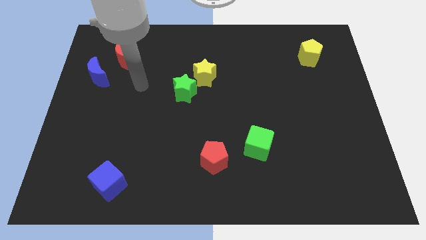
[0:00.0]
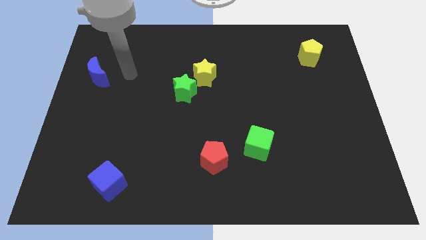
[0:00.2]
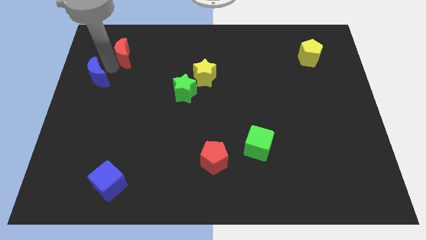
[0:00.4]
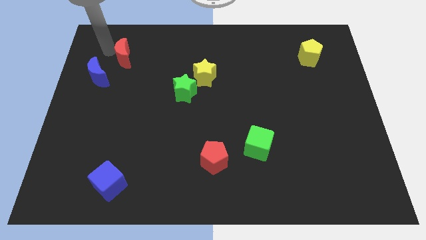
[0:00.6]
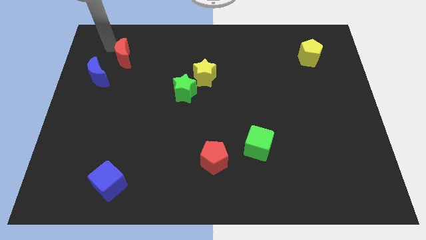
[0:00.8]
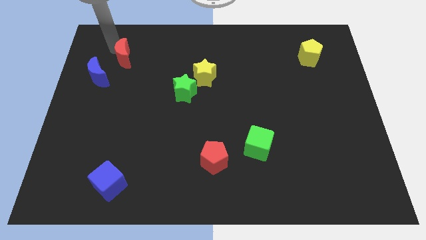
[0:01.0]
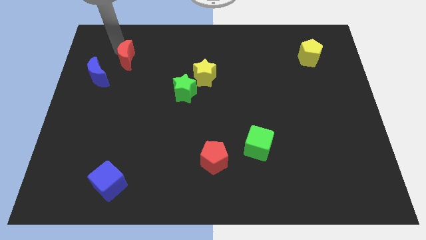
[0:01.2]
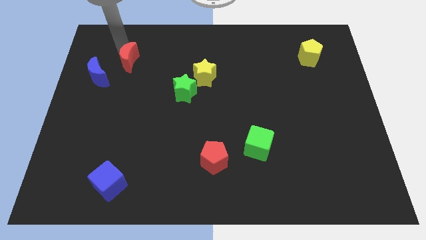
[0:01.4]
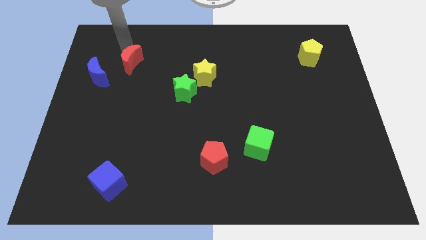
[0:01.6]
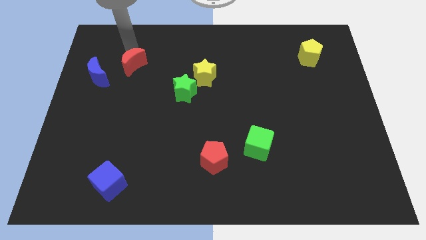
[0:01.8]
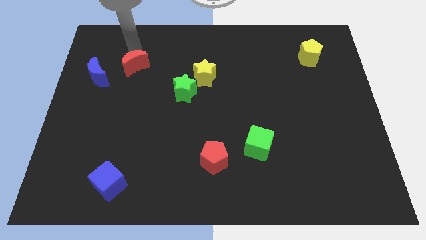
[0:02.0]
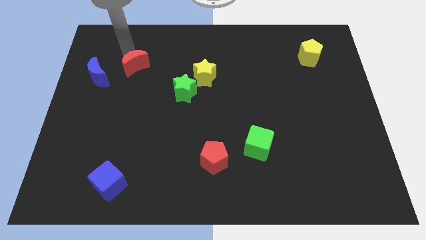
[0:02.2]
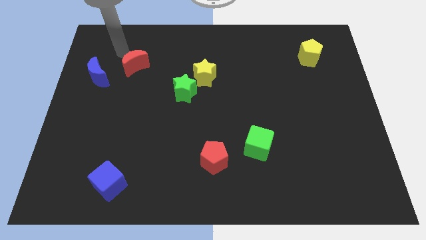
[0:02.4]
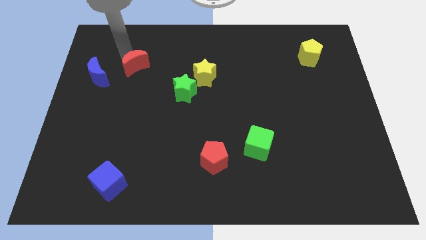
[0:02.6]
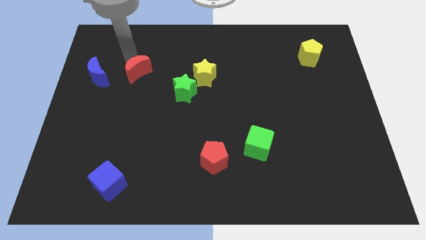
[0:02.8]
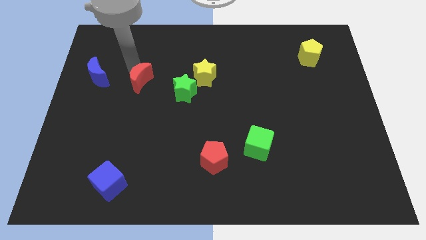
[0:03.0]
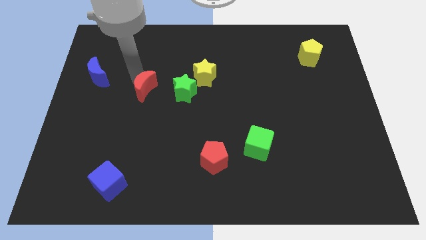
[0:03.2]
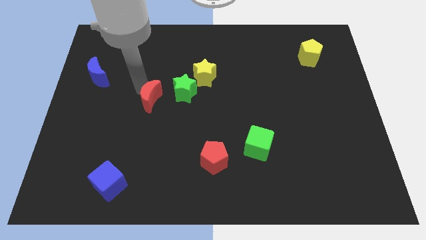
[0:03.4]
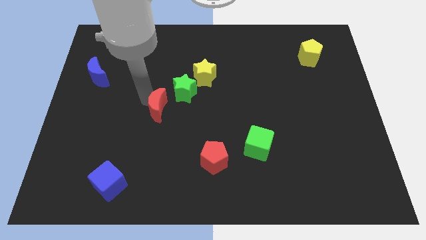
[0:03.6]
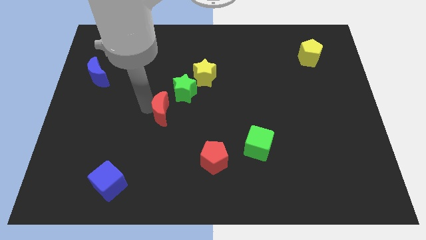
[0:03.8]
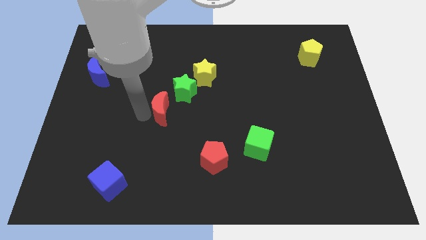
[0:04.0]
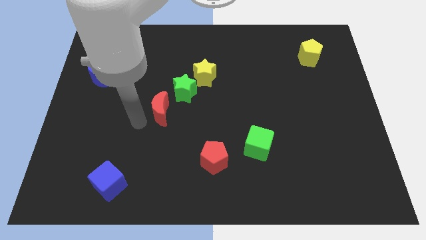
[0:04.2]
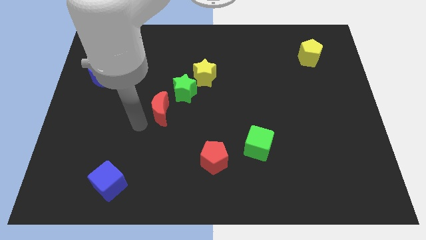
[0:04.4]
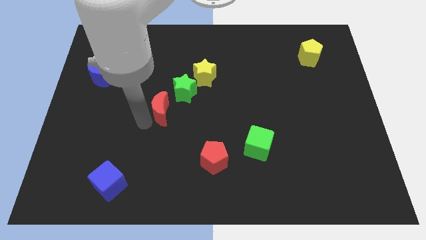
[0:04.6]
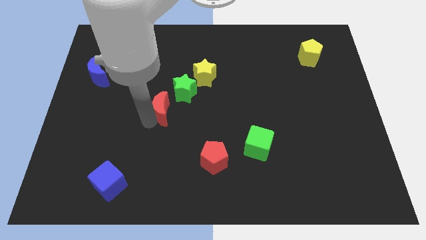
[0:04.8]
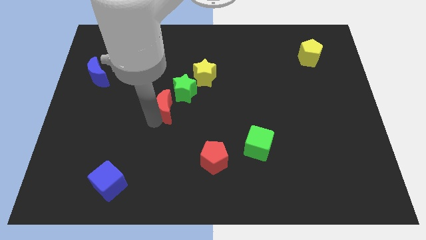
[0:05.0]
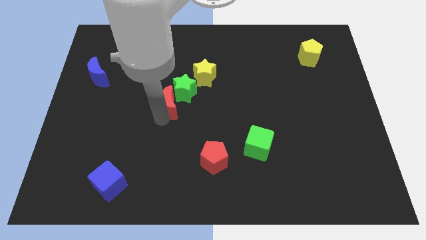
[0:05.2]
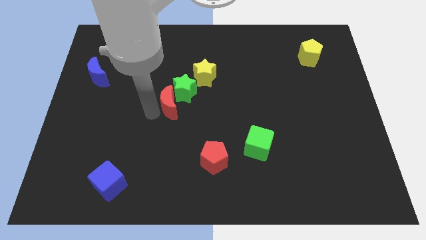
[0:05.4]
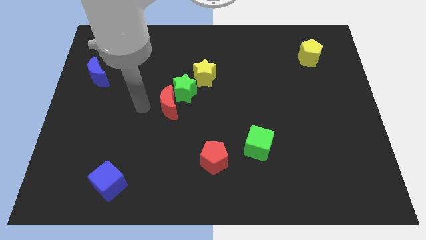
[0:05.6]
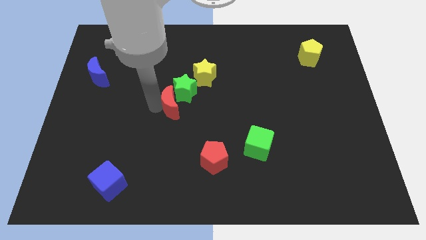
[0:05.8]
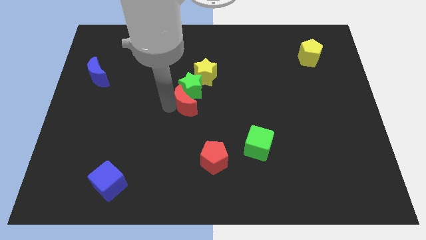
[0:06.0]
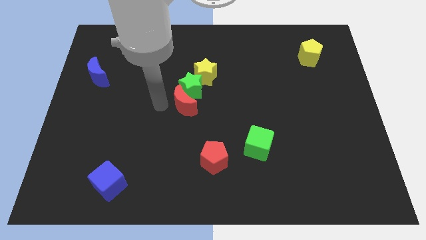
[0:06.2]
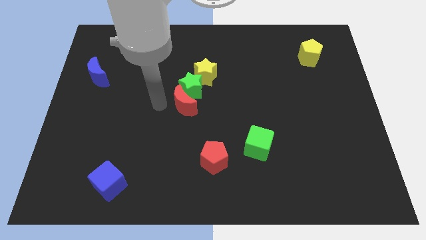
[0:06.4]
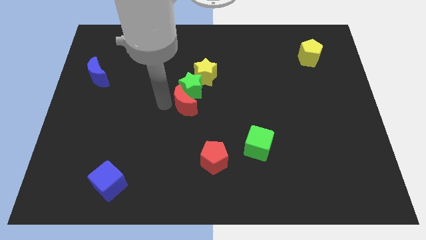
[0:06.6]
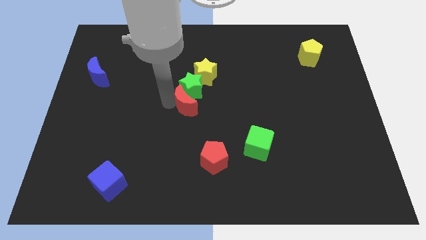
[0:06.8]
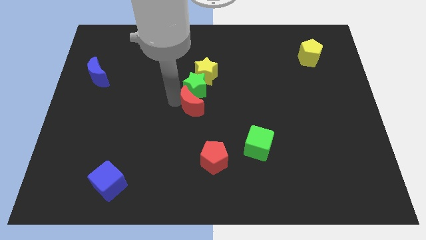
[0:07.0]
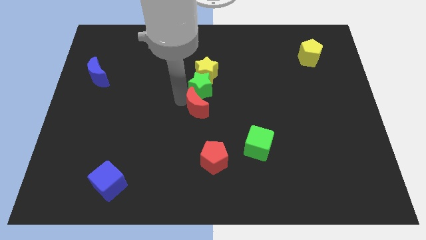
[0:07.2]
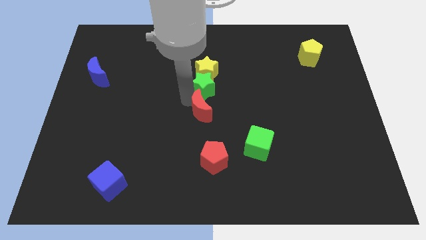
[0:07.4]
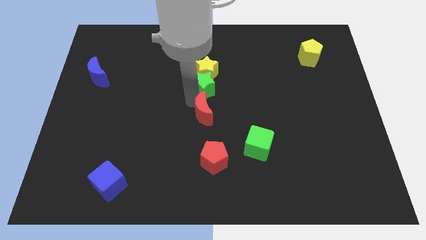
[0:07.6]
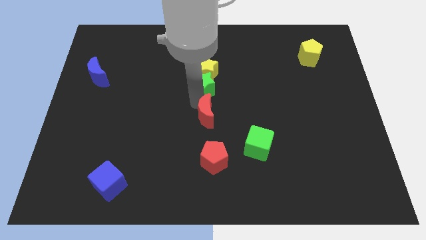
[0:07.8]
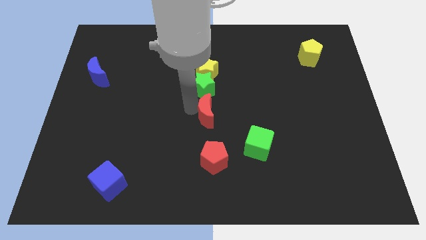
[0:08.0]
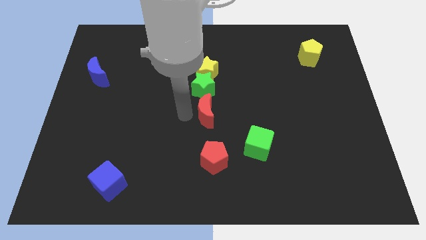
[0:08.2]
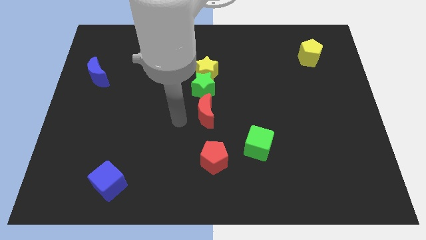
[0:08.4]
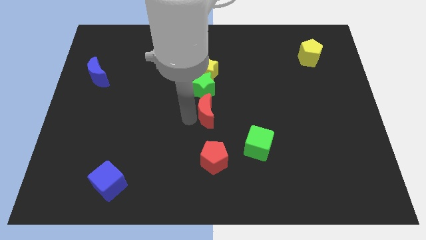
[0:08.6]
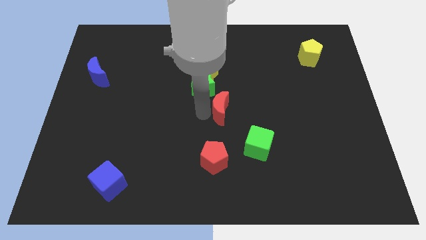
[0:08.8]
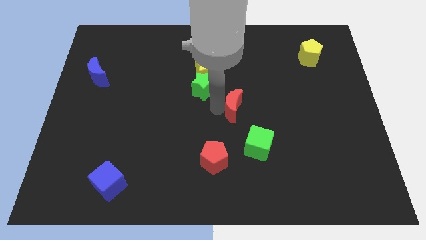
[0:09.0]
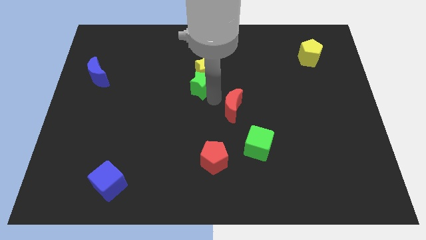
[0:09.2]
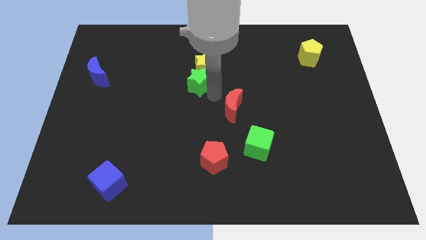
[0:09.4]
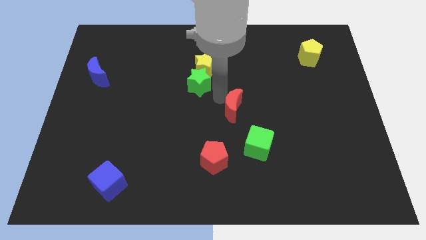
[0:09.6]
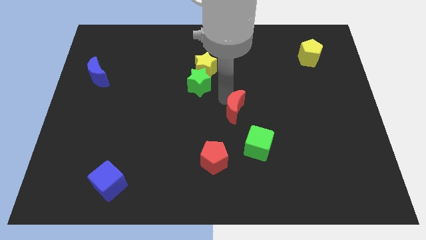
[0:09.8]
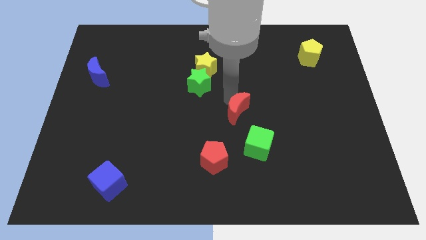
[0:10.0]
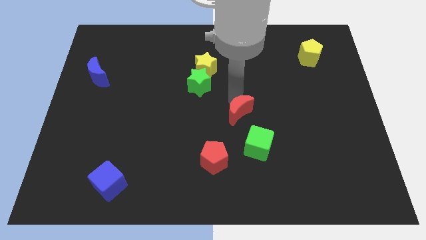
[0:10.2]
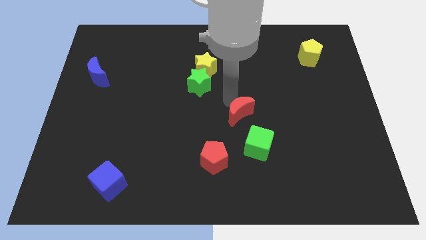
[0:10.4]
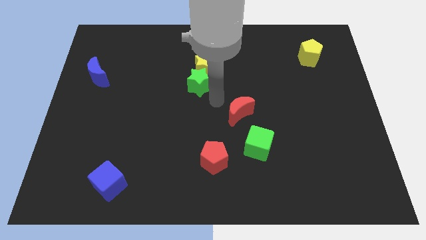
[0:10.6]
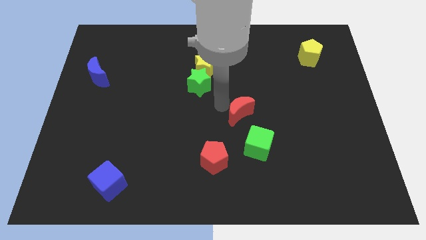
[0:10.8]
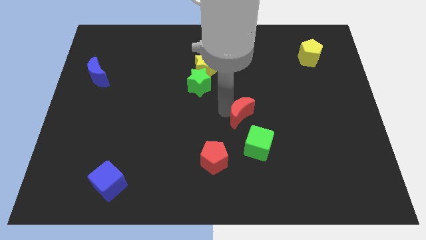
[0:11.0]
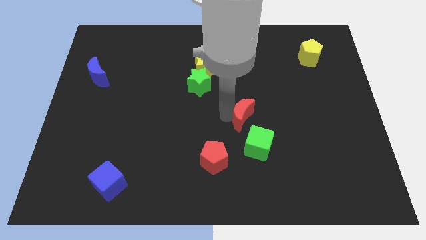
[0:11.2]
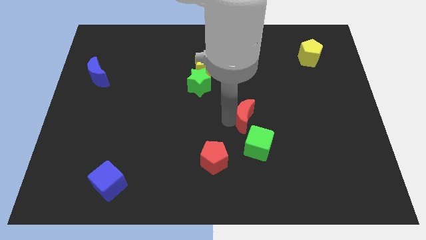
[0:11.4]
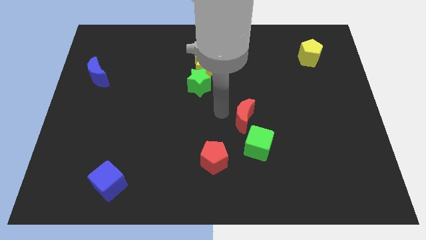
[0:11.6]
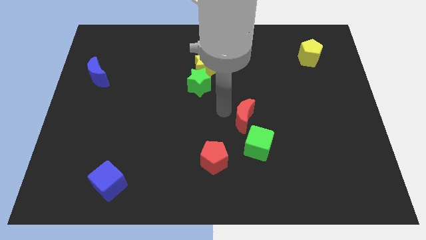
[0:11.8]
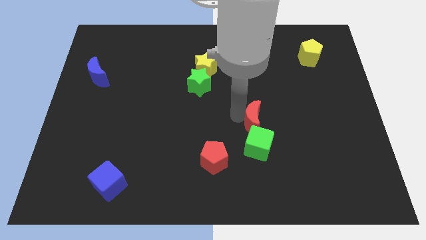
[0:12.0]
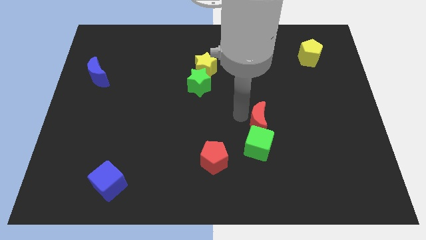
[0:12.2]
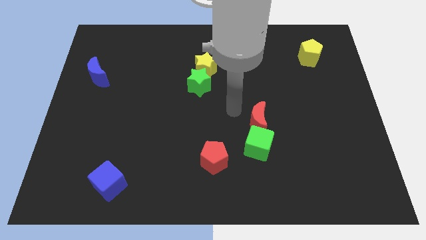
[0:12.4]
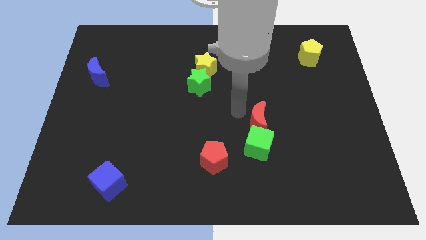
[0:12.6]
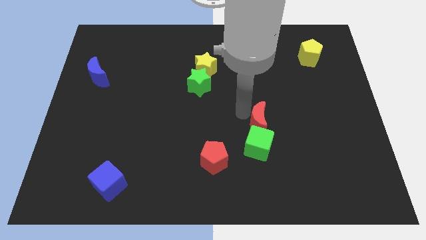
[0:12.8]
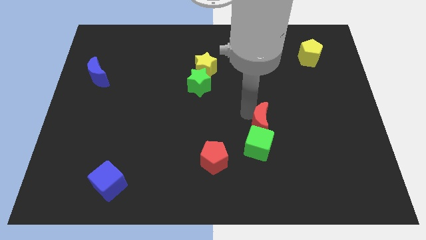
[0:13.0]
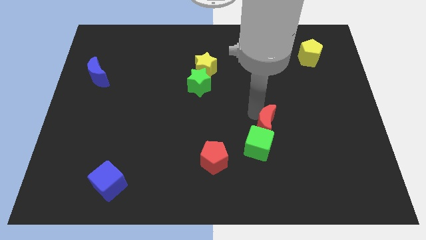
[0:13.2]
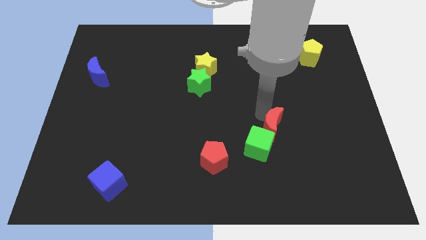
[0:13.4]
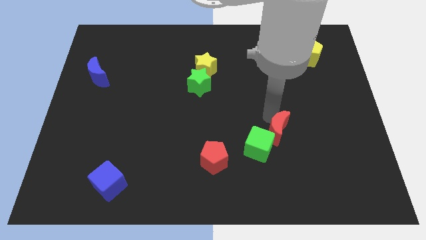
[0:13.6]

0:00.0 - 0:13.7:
push the red moon just right of the green cube

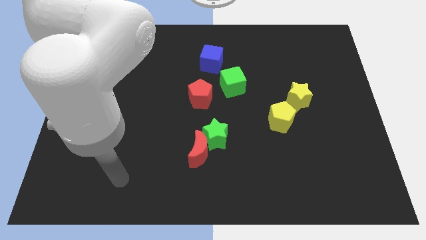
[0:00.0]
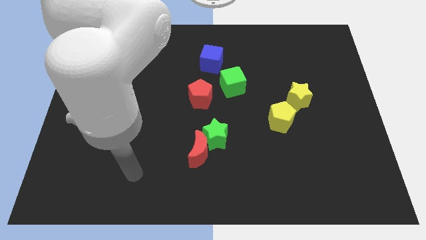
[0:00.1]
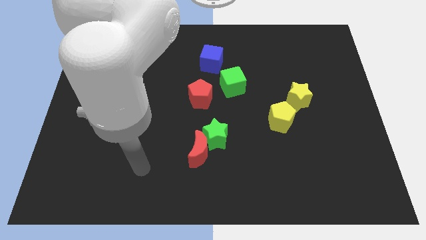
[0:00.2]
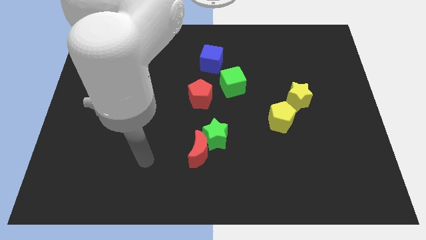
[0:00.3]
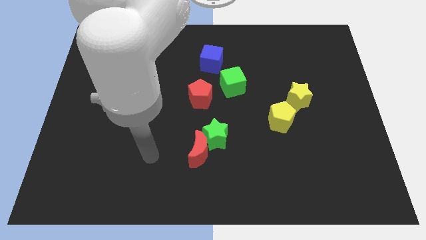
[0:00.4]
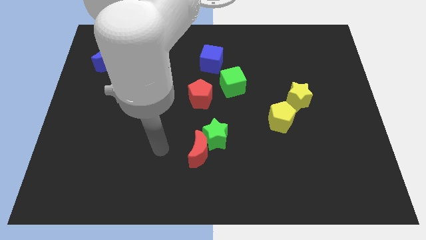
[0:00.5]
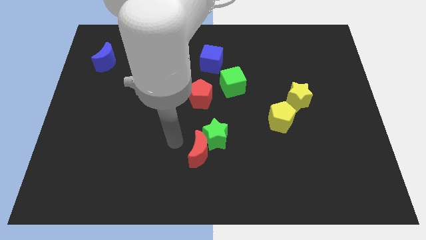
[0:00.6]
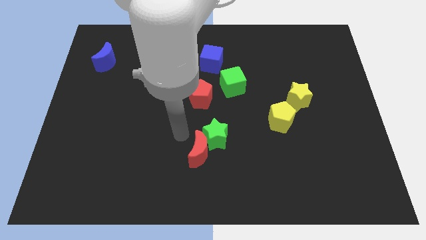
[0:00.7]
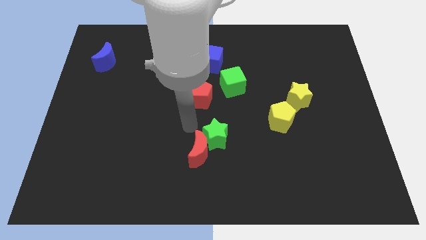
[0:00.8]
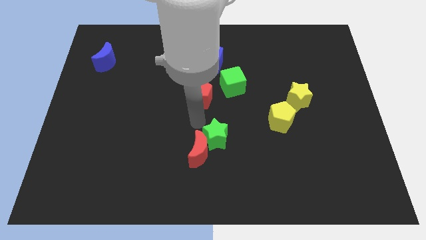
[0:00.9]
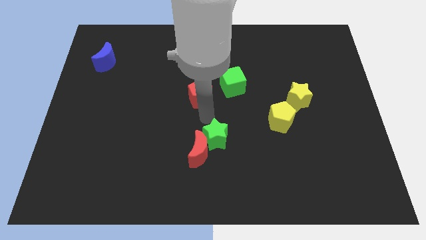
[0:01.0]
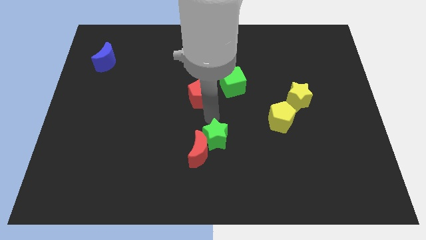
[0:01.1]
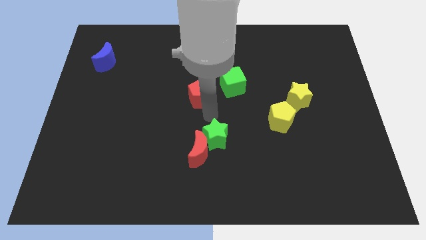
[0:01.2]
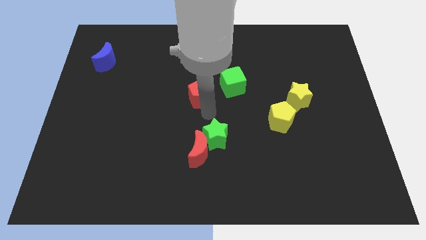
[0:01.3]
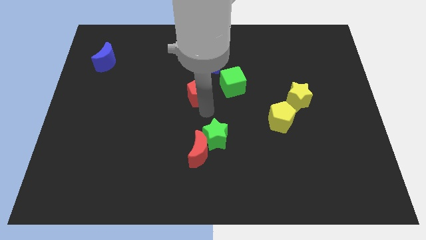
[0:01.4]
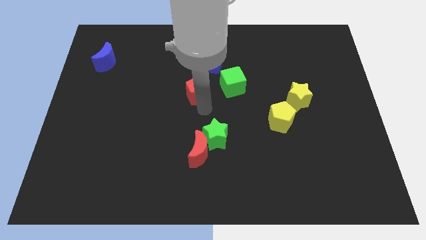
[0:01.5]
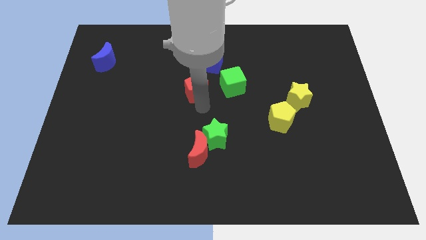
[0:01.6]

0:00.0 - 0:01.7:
put the red pentagon to the bottom left side of the blue cube
